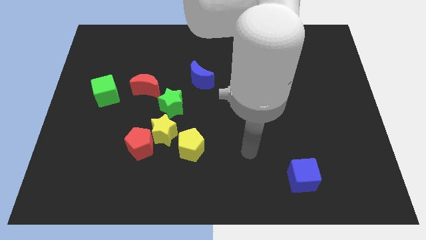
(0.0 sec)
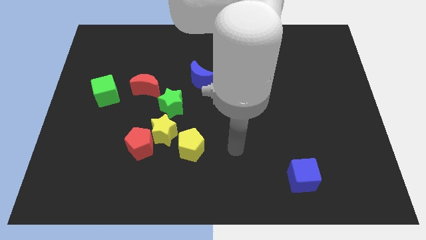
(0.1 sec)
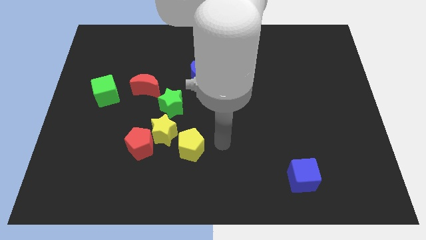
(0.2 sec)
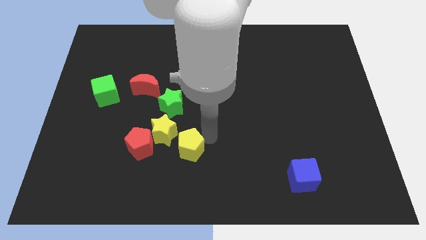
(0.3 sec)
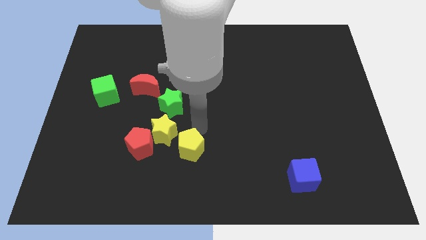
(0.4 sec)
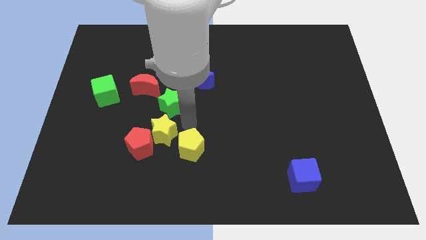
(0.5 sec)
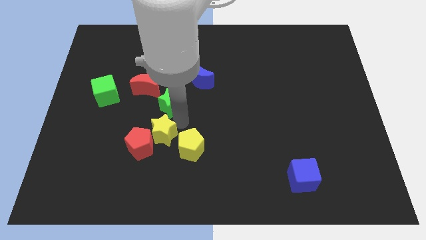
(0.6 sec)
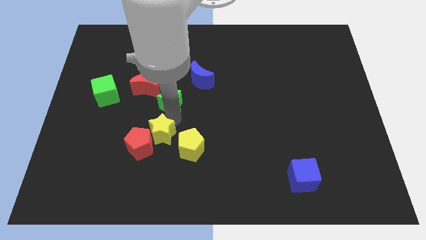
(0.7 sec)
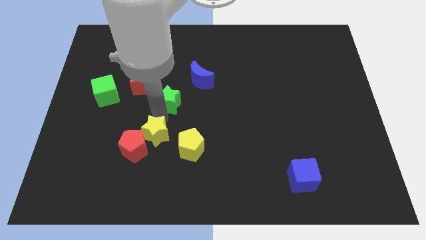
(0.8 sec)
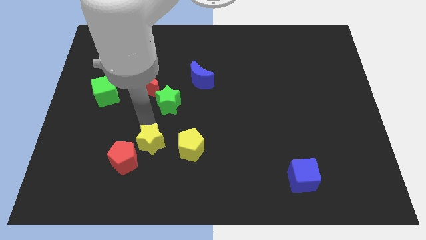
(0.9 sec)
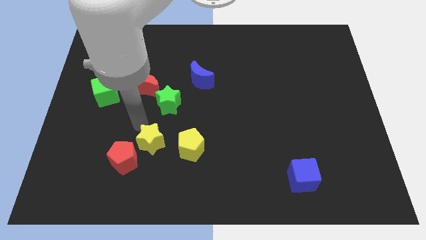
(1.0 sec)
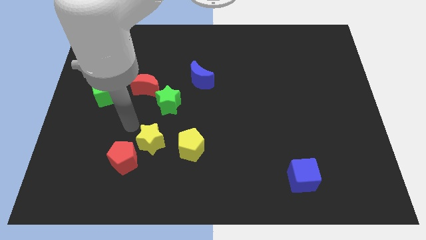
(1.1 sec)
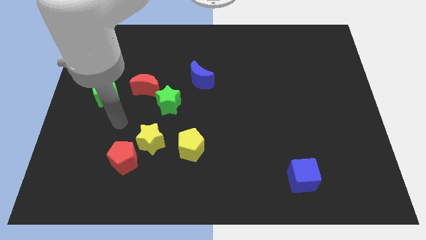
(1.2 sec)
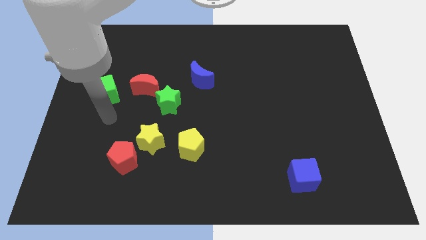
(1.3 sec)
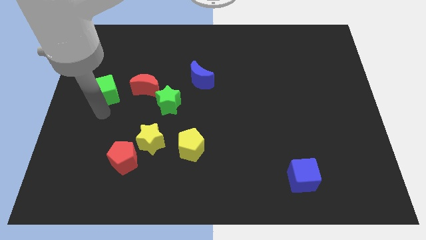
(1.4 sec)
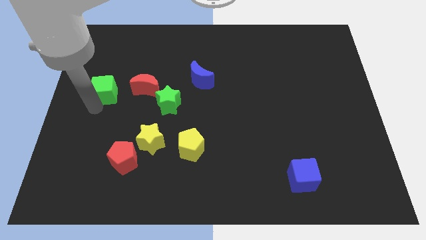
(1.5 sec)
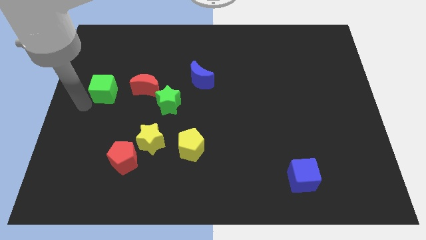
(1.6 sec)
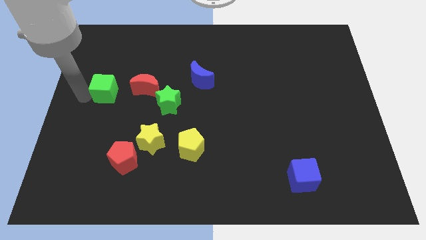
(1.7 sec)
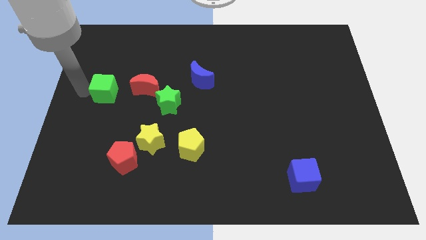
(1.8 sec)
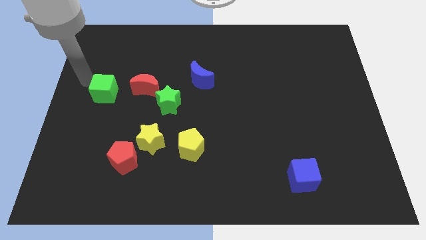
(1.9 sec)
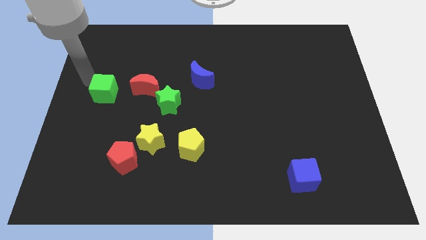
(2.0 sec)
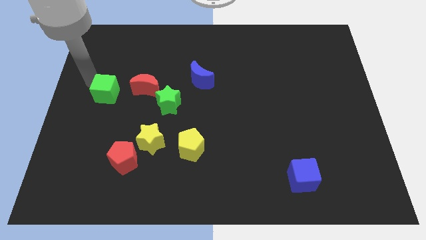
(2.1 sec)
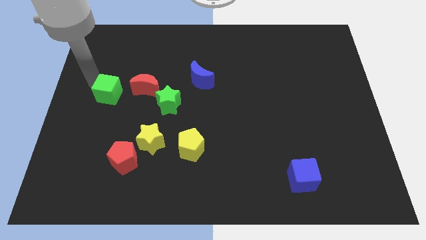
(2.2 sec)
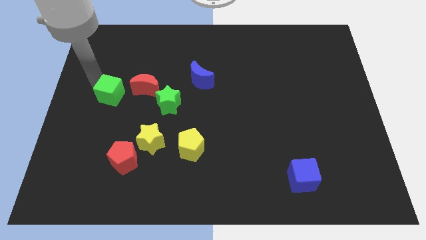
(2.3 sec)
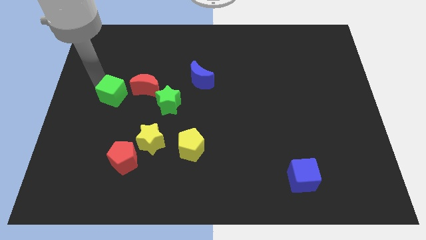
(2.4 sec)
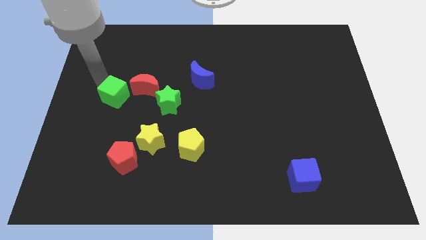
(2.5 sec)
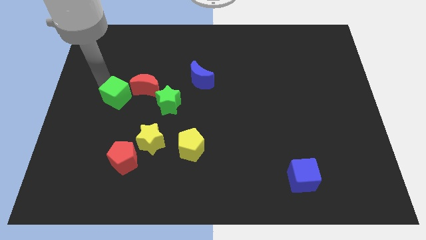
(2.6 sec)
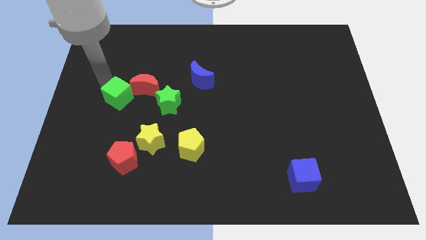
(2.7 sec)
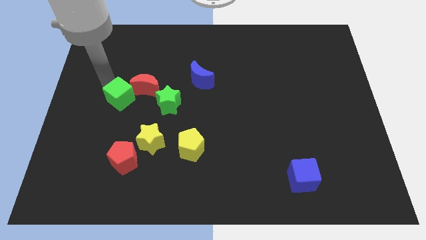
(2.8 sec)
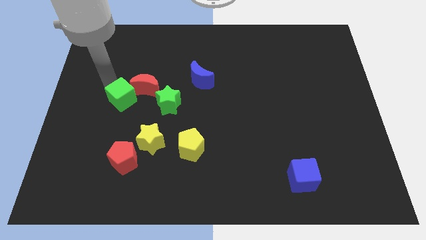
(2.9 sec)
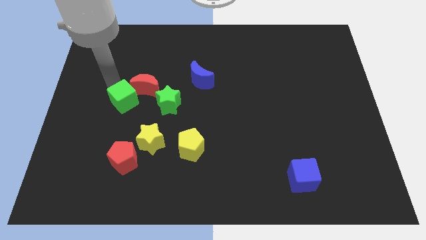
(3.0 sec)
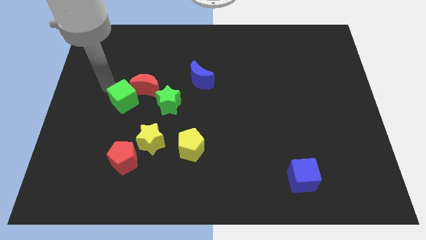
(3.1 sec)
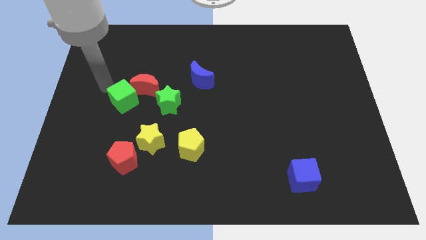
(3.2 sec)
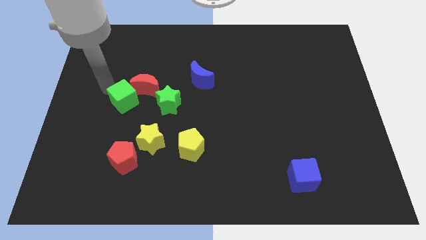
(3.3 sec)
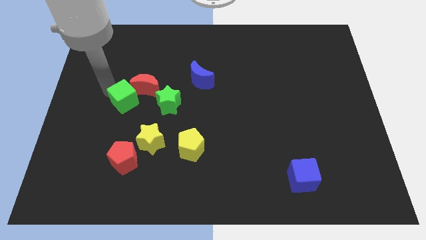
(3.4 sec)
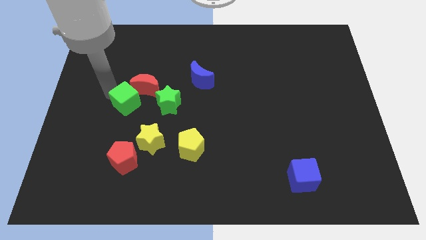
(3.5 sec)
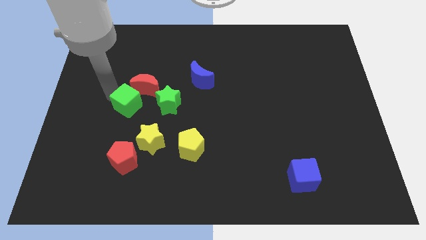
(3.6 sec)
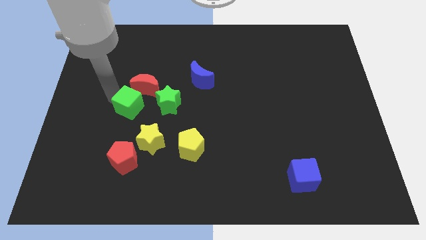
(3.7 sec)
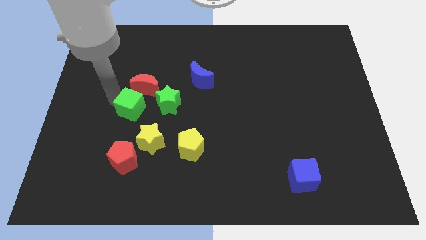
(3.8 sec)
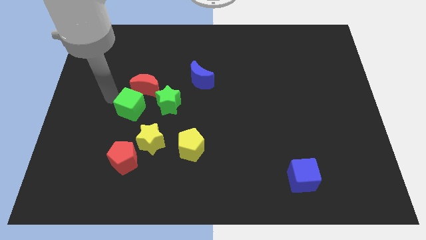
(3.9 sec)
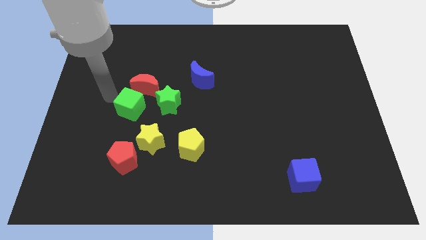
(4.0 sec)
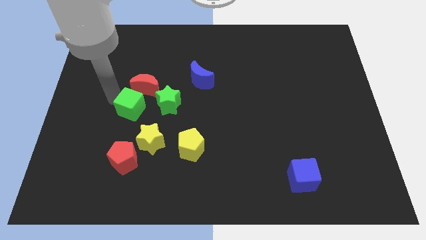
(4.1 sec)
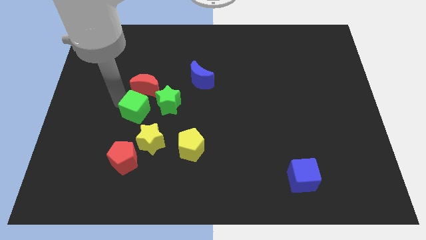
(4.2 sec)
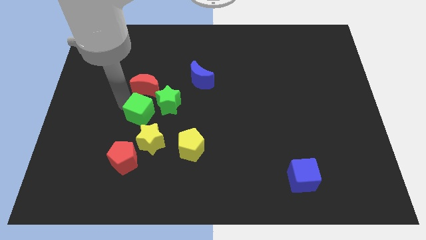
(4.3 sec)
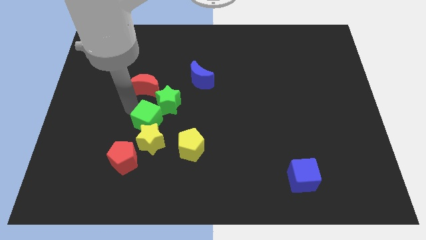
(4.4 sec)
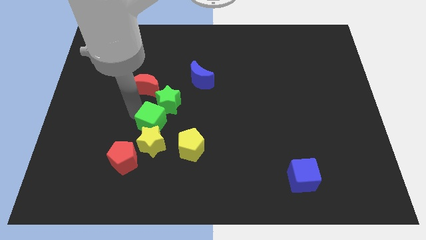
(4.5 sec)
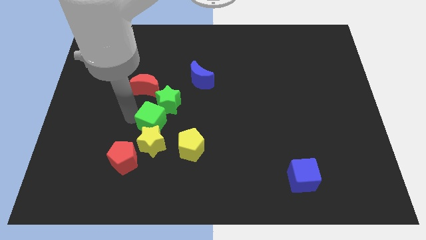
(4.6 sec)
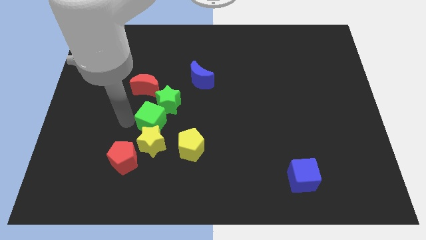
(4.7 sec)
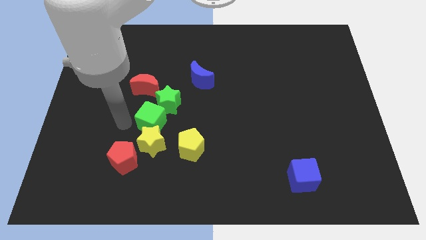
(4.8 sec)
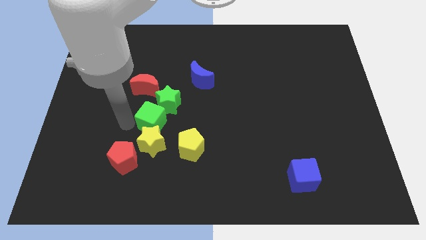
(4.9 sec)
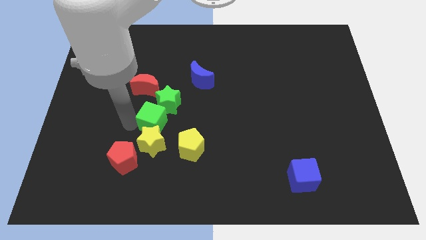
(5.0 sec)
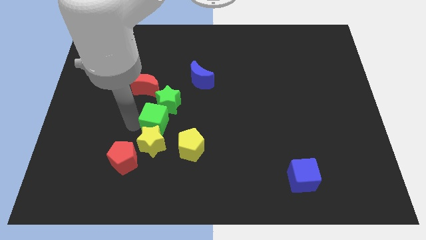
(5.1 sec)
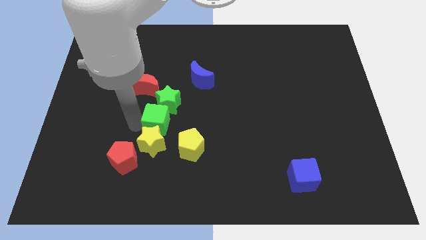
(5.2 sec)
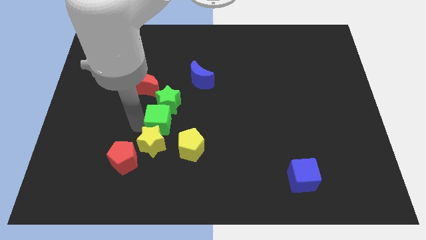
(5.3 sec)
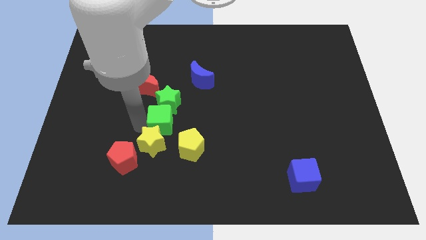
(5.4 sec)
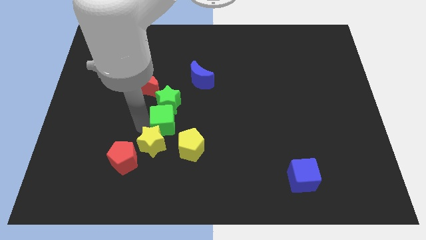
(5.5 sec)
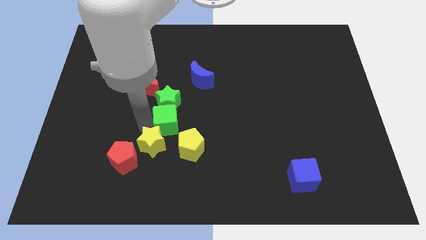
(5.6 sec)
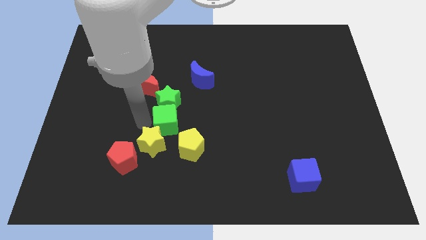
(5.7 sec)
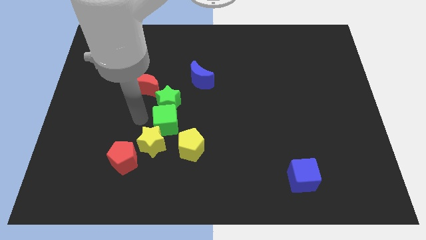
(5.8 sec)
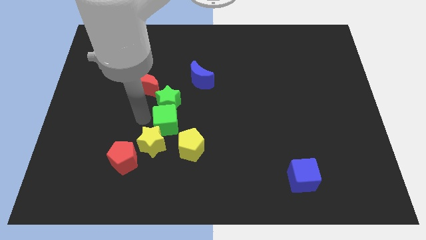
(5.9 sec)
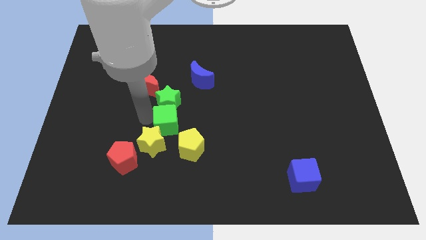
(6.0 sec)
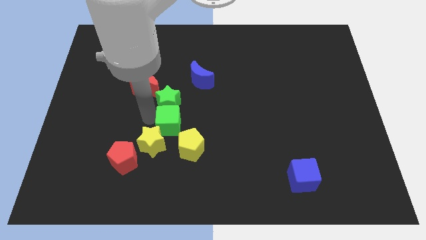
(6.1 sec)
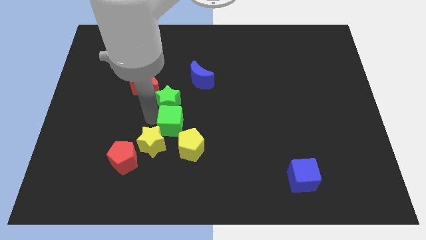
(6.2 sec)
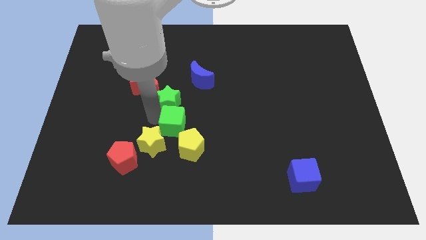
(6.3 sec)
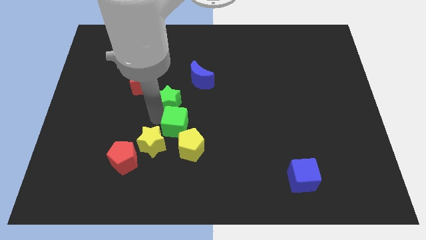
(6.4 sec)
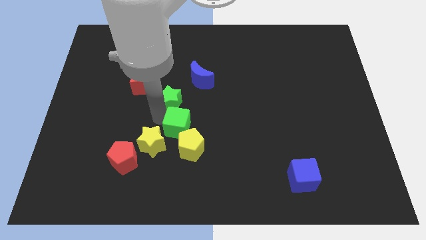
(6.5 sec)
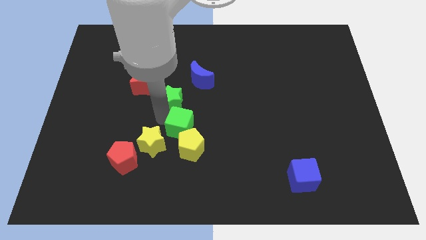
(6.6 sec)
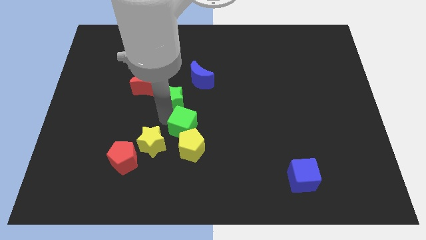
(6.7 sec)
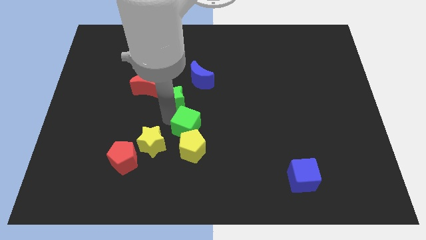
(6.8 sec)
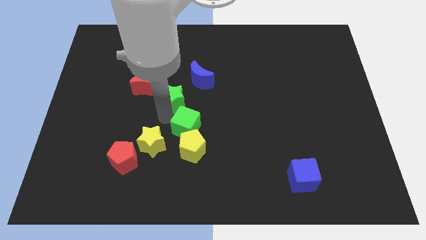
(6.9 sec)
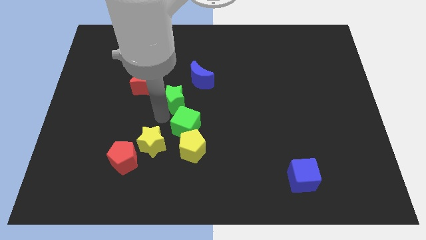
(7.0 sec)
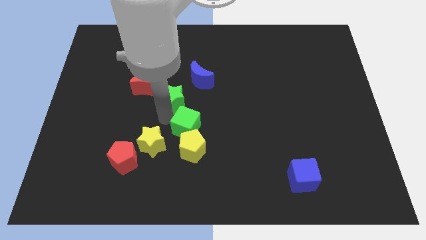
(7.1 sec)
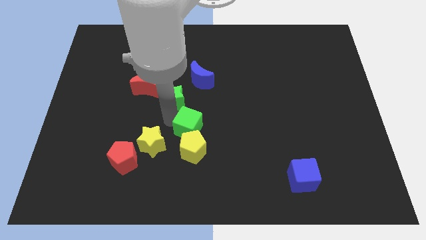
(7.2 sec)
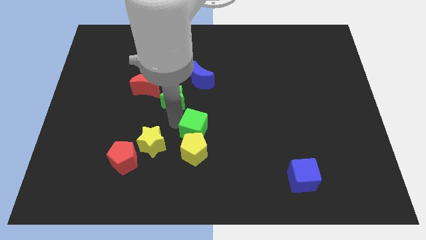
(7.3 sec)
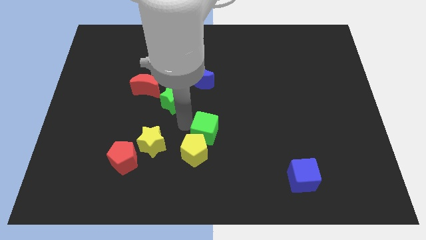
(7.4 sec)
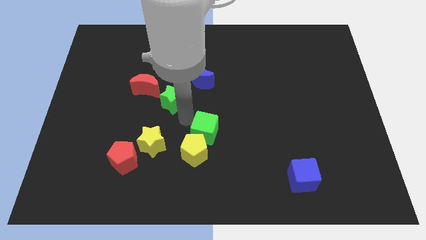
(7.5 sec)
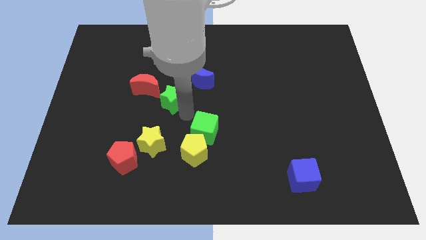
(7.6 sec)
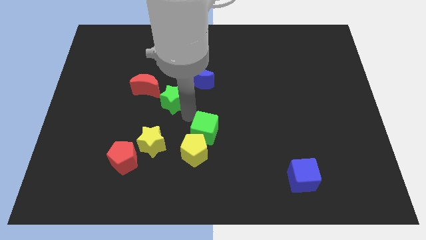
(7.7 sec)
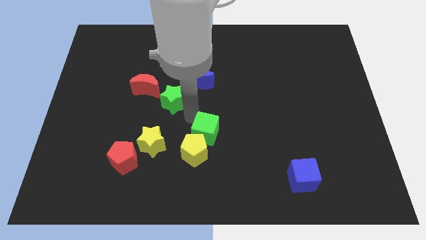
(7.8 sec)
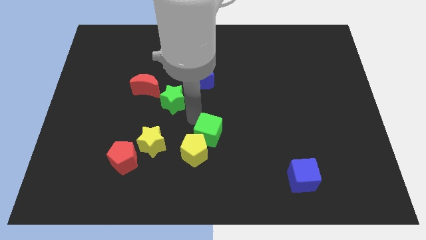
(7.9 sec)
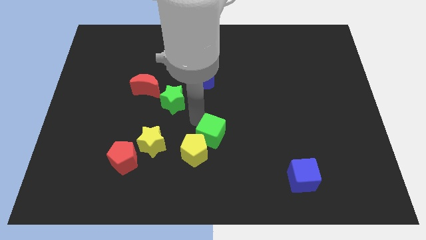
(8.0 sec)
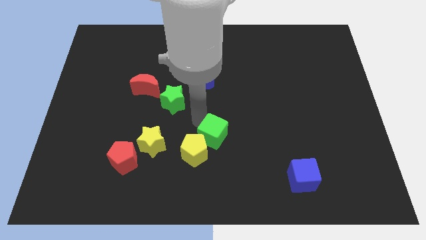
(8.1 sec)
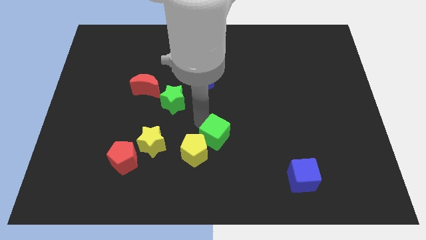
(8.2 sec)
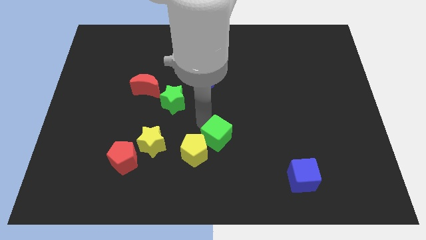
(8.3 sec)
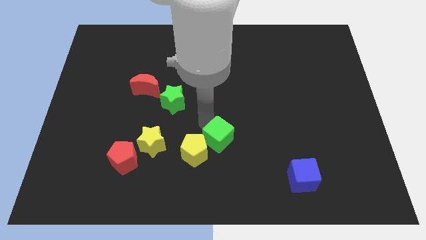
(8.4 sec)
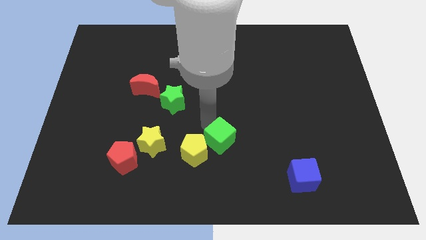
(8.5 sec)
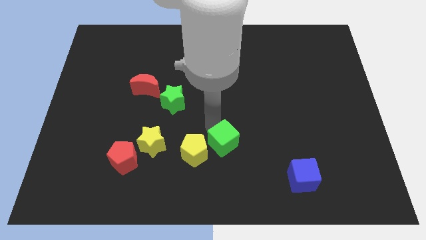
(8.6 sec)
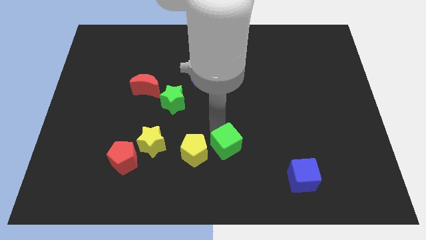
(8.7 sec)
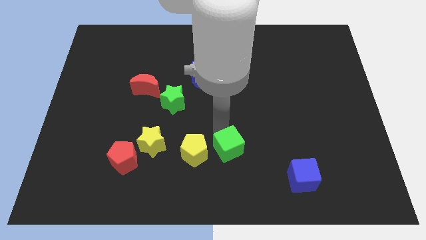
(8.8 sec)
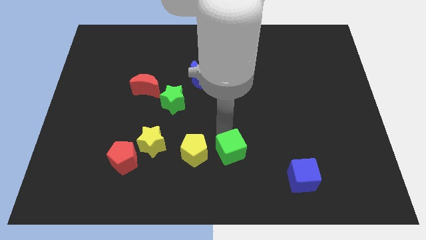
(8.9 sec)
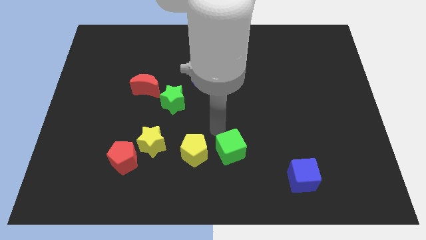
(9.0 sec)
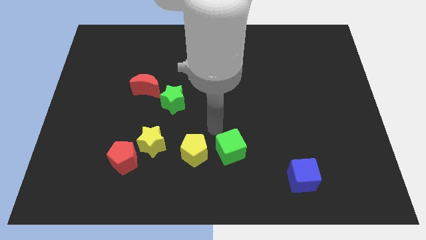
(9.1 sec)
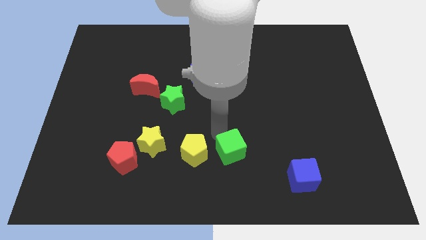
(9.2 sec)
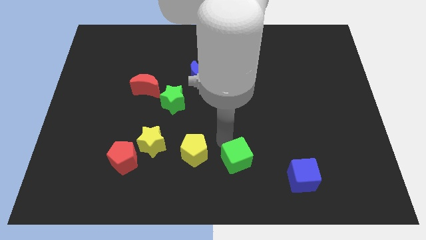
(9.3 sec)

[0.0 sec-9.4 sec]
move the green cube left of the blue cube
